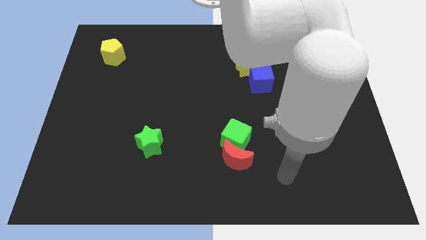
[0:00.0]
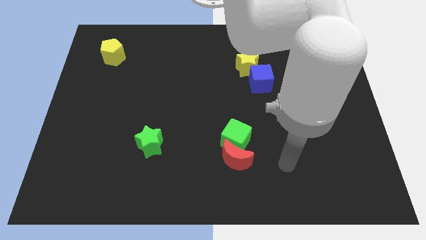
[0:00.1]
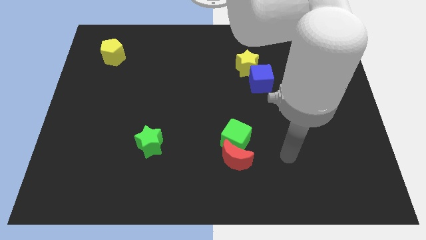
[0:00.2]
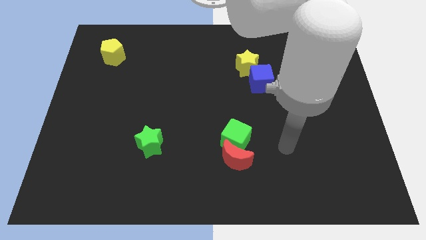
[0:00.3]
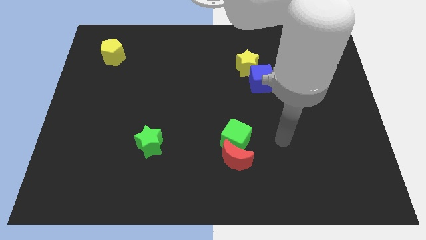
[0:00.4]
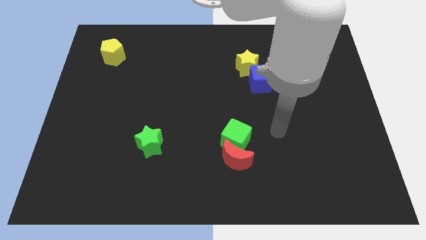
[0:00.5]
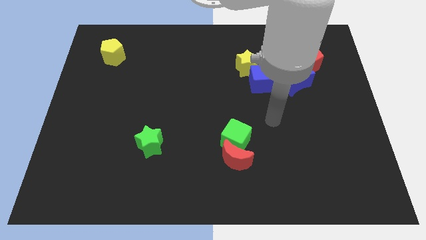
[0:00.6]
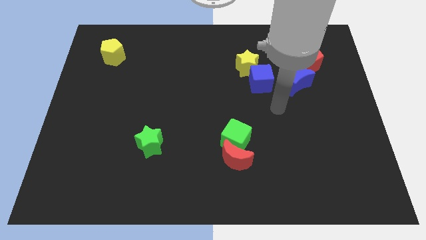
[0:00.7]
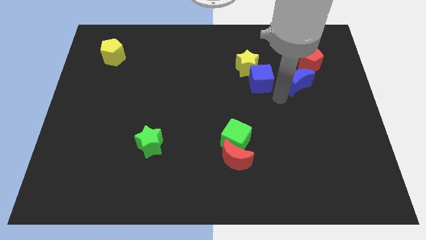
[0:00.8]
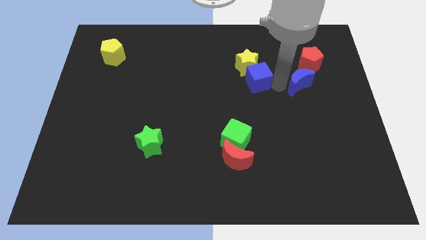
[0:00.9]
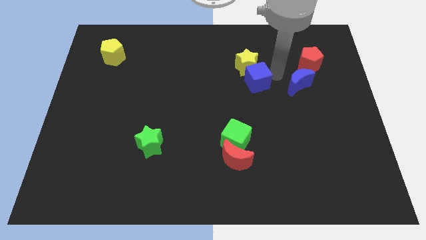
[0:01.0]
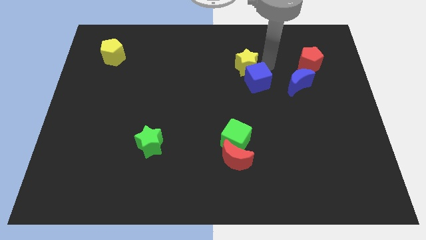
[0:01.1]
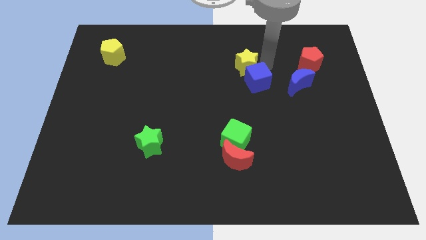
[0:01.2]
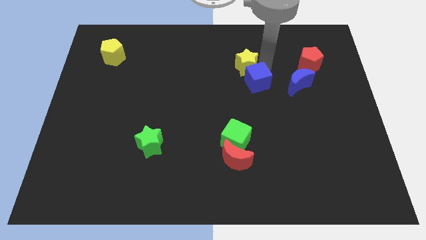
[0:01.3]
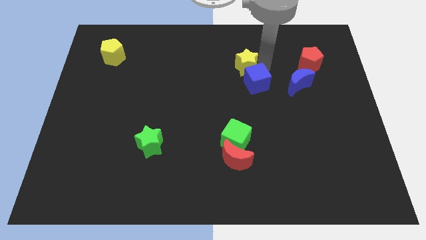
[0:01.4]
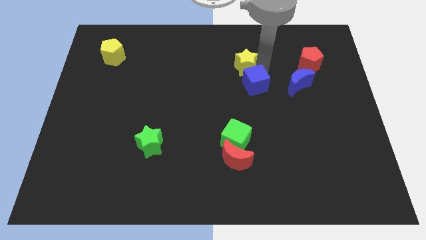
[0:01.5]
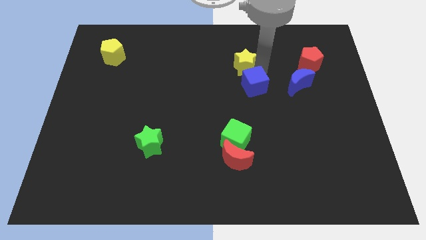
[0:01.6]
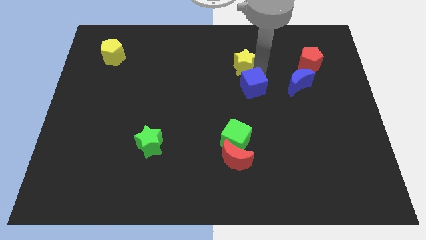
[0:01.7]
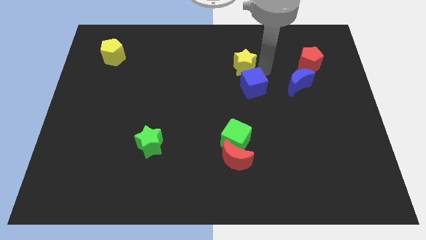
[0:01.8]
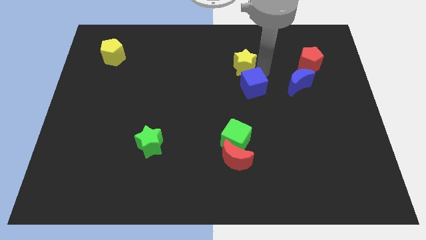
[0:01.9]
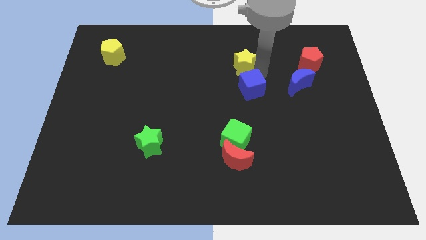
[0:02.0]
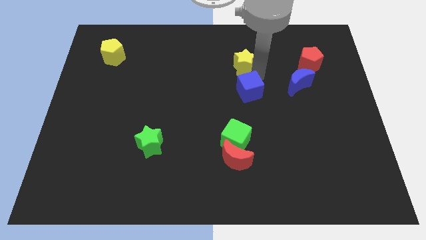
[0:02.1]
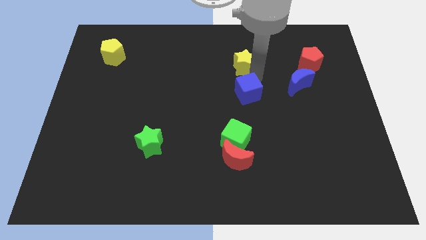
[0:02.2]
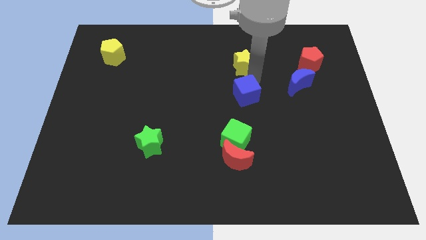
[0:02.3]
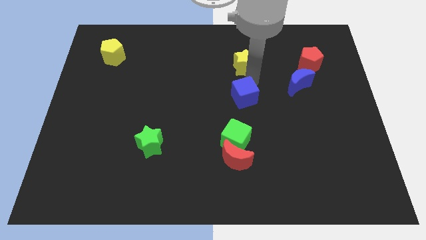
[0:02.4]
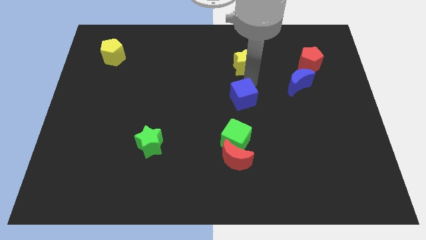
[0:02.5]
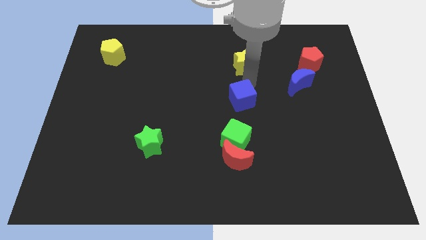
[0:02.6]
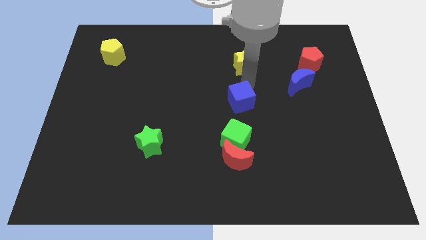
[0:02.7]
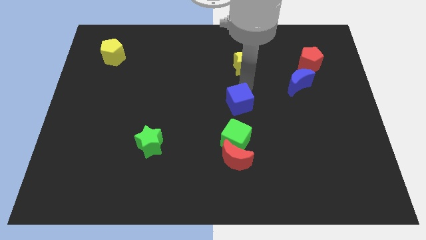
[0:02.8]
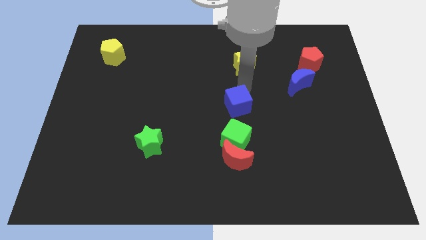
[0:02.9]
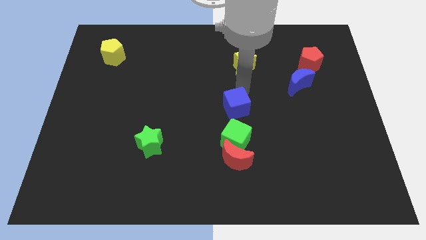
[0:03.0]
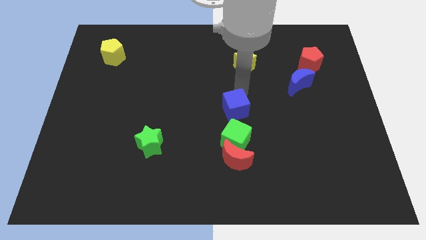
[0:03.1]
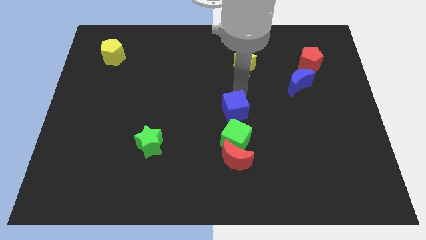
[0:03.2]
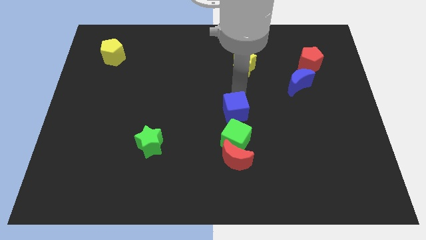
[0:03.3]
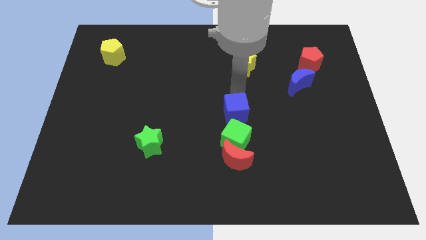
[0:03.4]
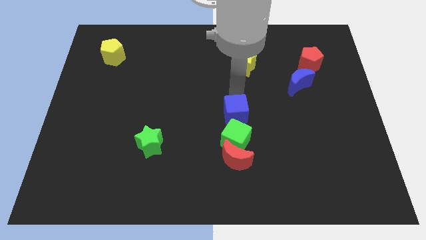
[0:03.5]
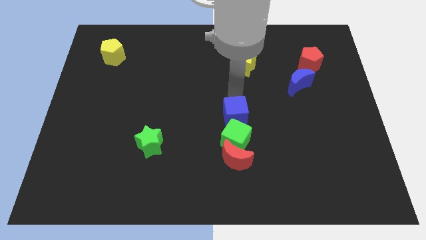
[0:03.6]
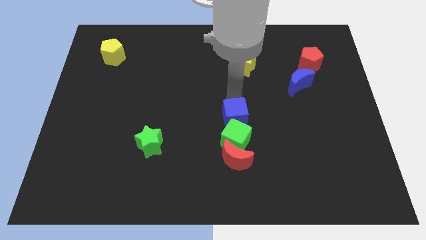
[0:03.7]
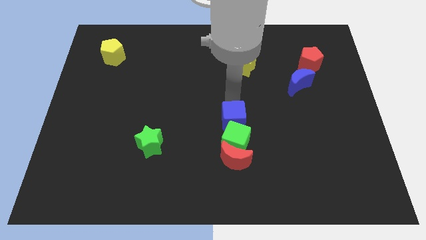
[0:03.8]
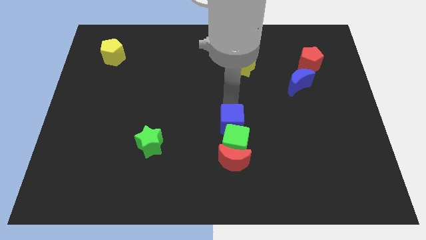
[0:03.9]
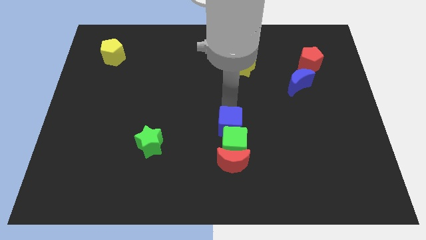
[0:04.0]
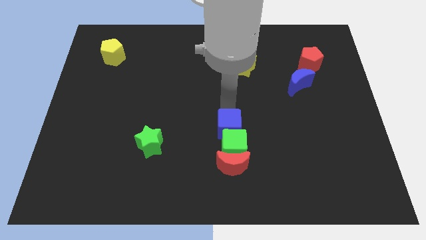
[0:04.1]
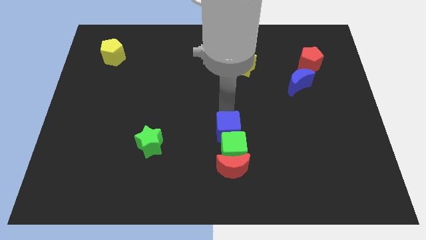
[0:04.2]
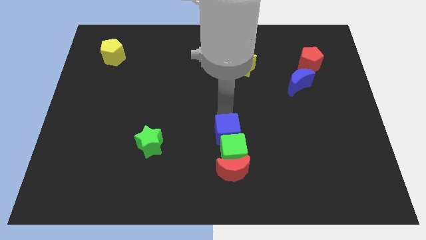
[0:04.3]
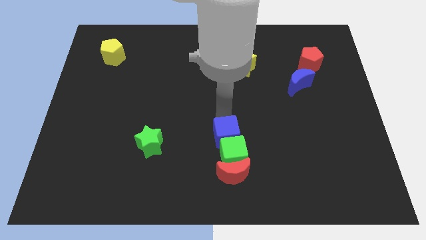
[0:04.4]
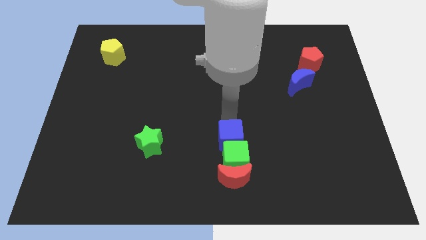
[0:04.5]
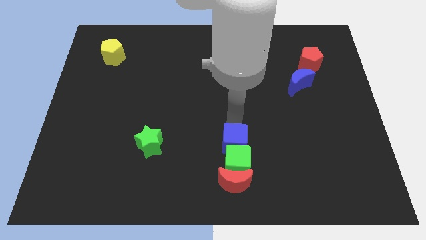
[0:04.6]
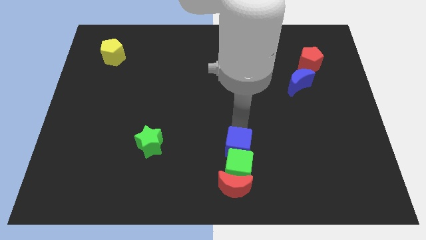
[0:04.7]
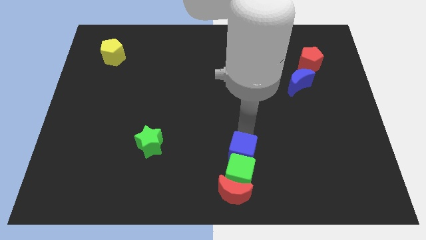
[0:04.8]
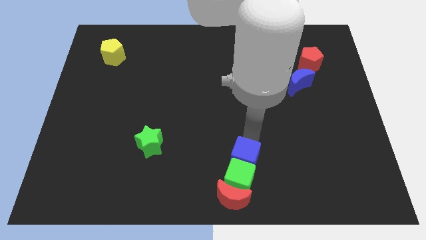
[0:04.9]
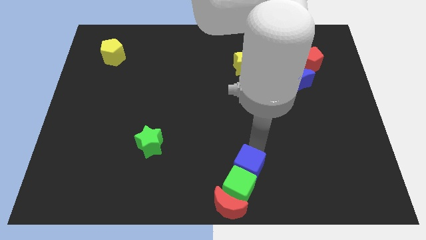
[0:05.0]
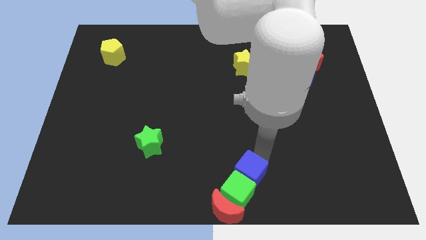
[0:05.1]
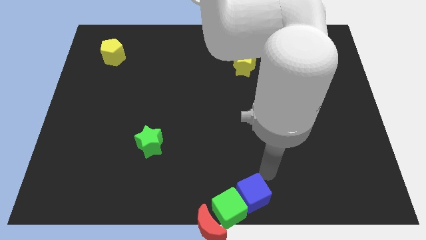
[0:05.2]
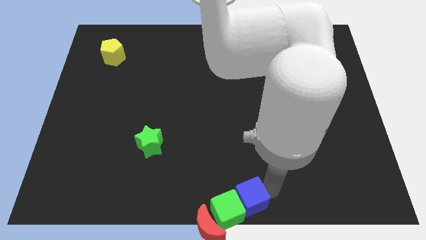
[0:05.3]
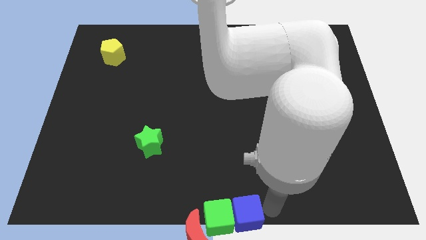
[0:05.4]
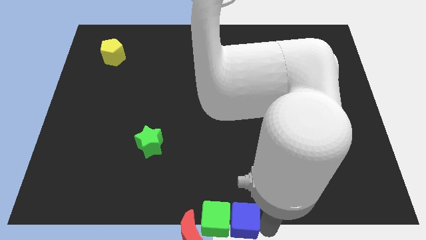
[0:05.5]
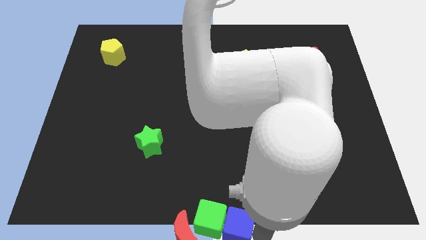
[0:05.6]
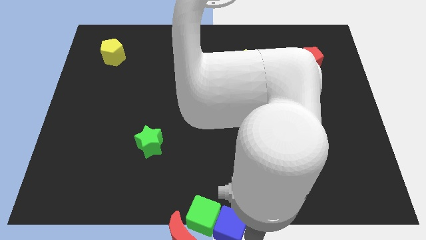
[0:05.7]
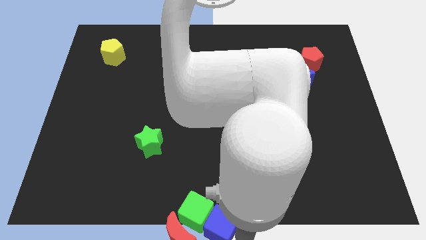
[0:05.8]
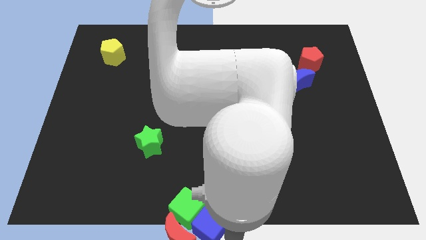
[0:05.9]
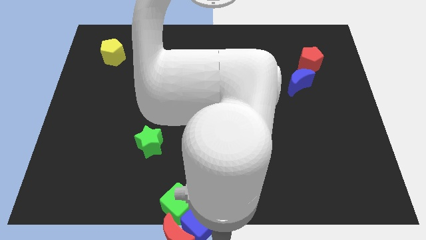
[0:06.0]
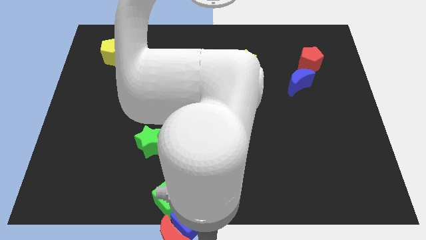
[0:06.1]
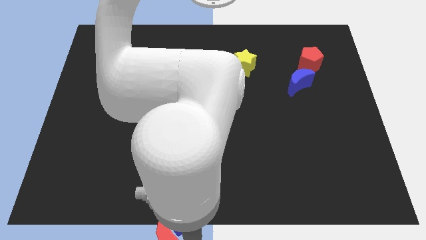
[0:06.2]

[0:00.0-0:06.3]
slide the blue cube down and then left

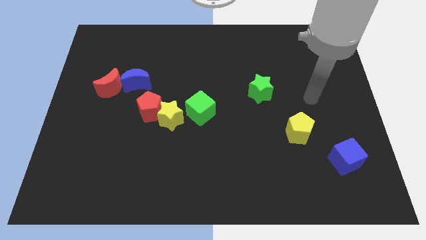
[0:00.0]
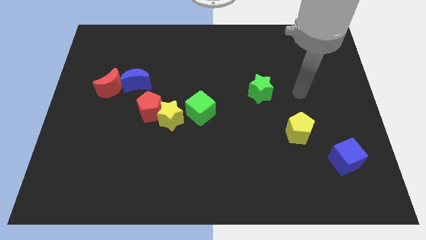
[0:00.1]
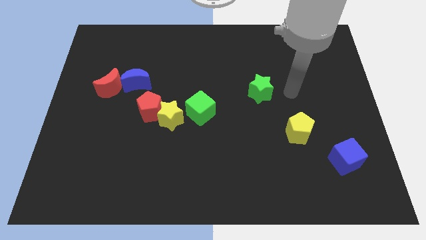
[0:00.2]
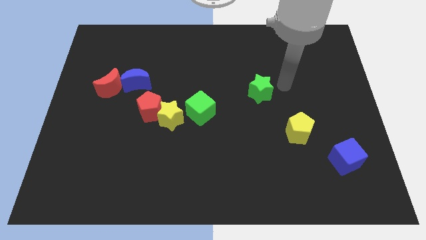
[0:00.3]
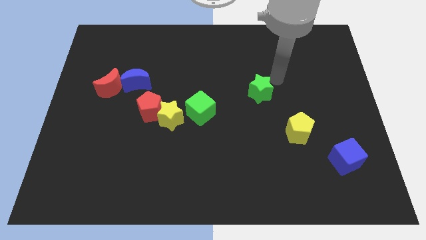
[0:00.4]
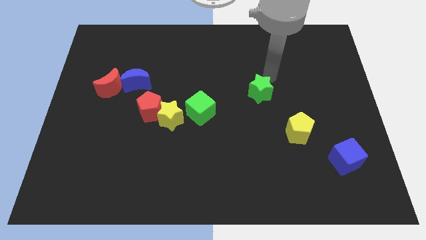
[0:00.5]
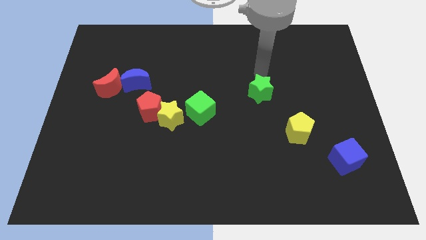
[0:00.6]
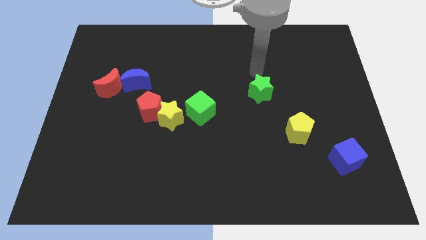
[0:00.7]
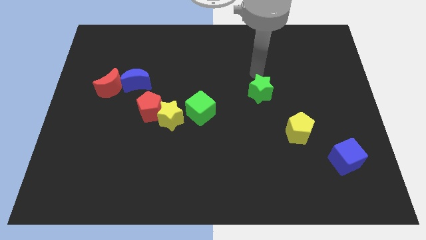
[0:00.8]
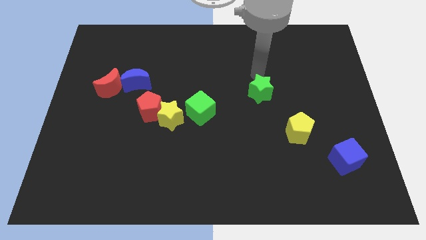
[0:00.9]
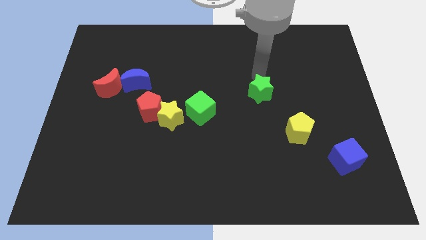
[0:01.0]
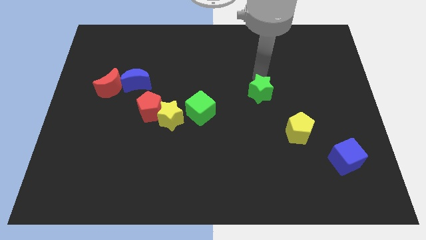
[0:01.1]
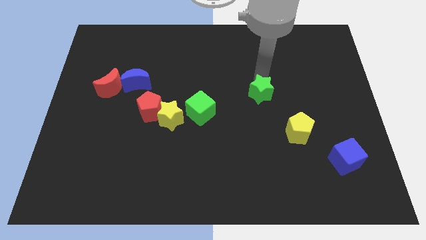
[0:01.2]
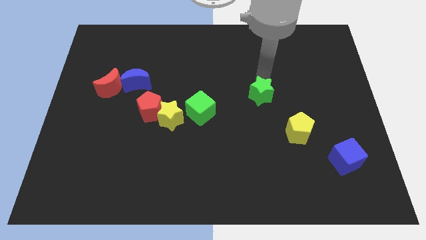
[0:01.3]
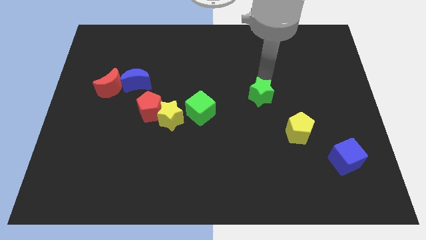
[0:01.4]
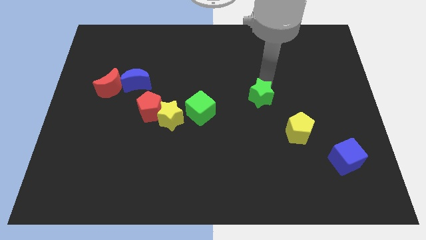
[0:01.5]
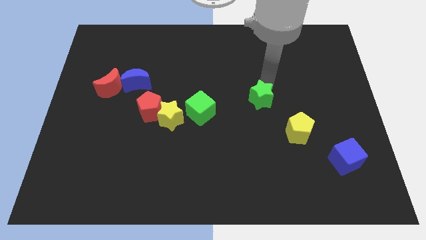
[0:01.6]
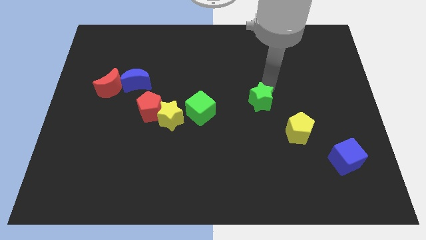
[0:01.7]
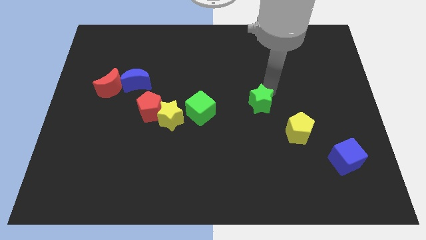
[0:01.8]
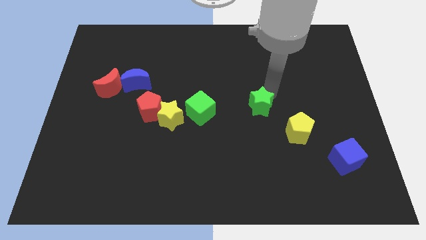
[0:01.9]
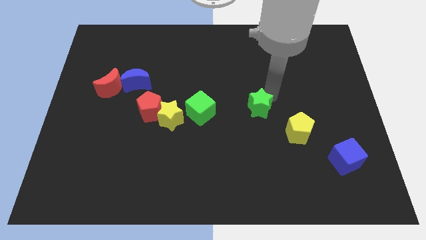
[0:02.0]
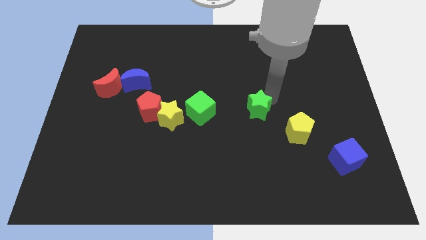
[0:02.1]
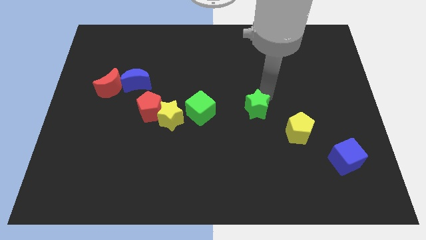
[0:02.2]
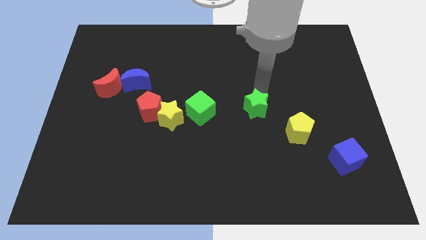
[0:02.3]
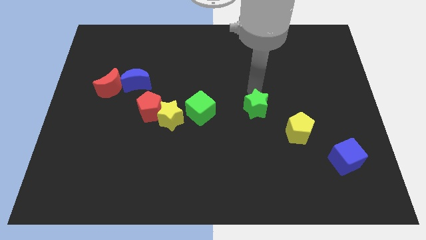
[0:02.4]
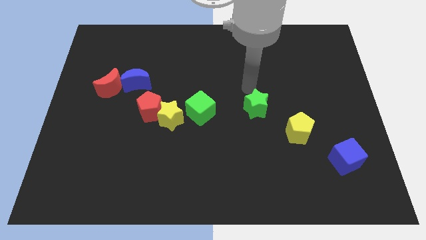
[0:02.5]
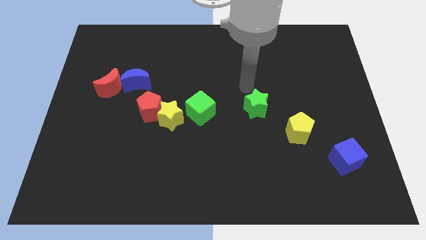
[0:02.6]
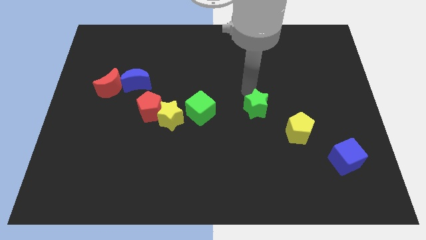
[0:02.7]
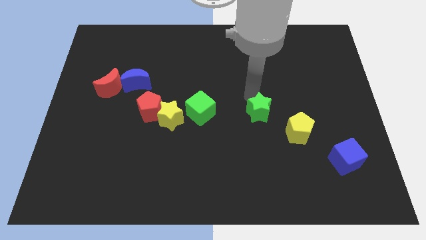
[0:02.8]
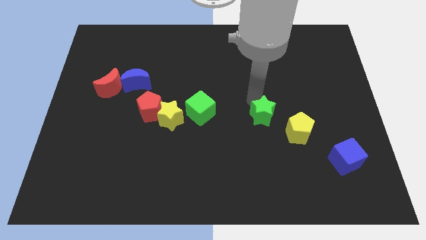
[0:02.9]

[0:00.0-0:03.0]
slightly move the green star downwards
